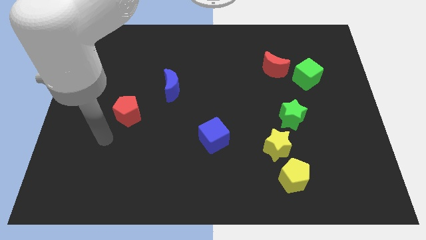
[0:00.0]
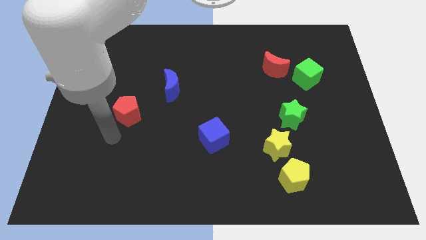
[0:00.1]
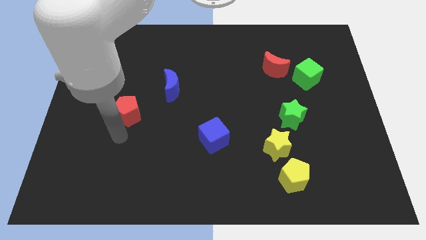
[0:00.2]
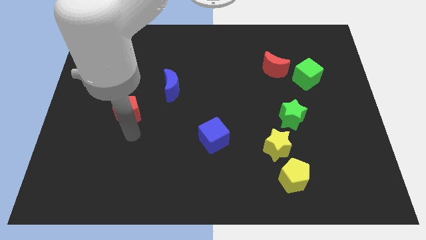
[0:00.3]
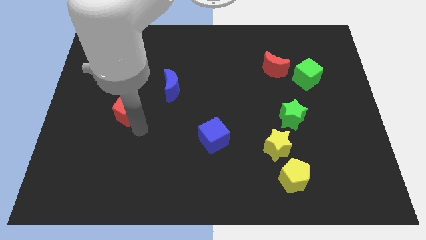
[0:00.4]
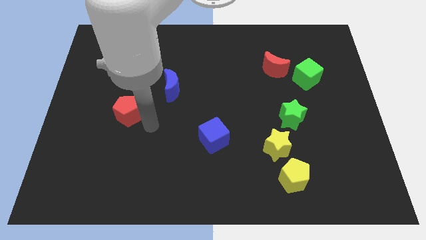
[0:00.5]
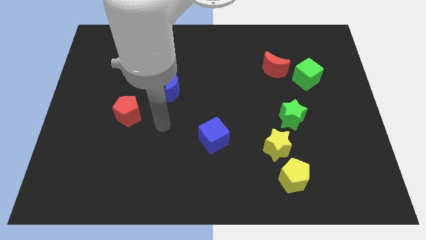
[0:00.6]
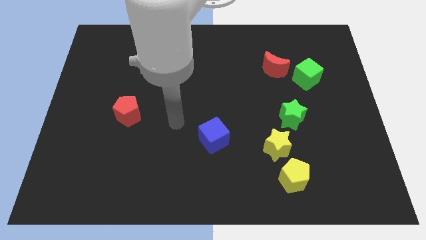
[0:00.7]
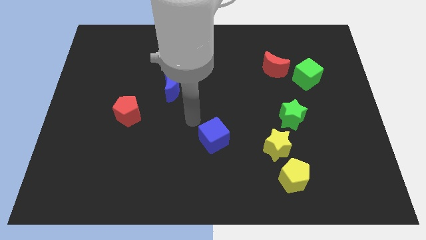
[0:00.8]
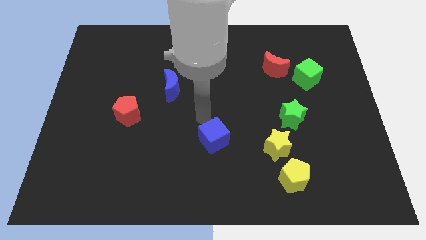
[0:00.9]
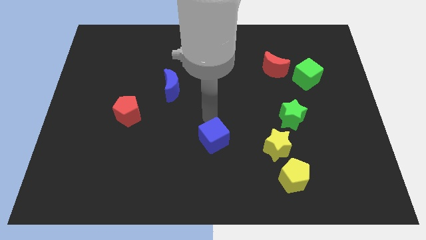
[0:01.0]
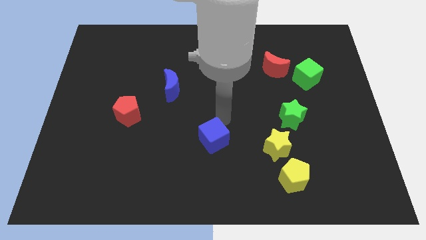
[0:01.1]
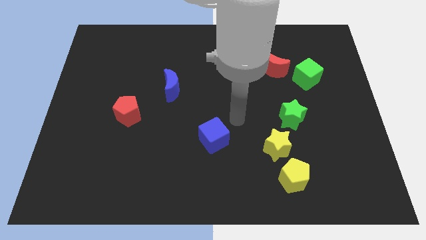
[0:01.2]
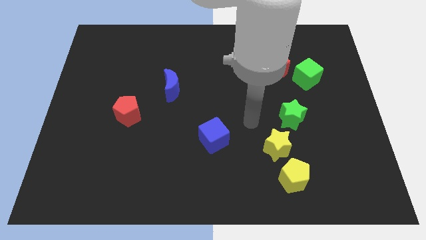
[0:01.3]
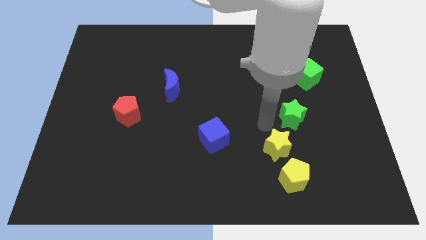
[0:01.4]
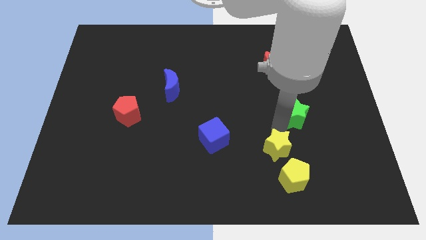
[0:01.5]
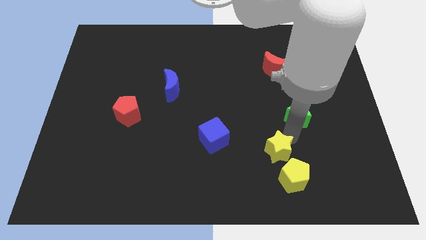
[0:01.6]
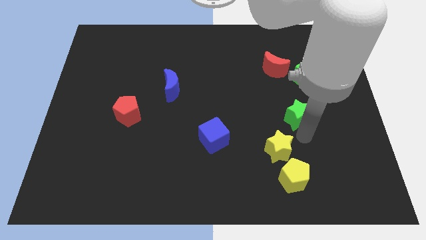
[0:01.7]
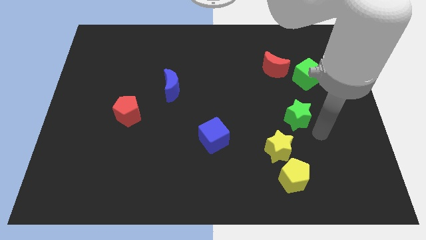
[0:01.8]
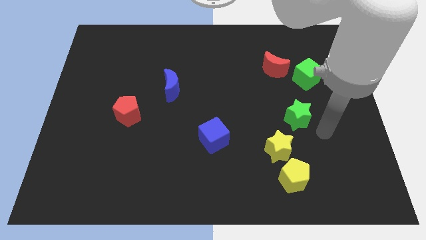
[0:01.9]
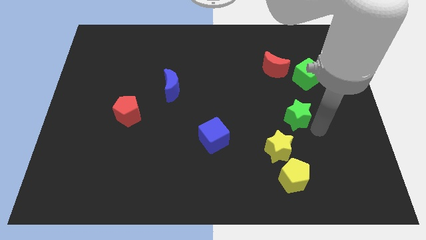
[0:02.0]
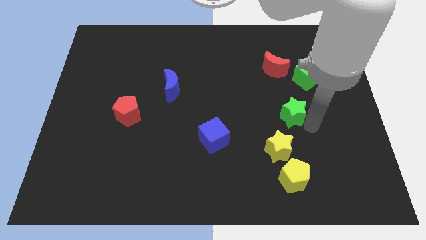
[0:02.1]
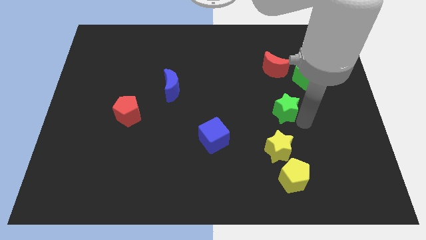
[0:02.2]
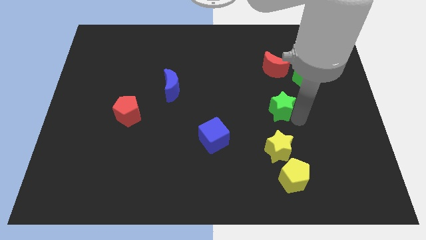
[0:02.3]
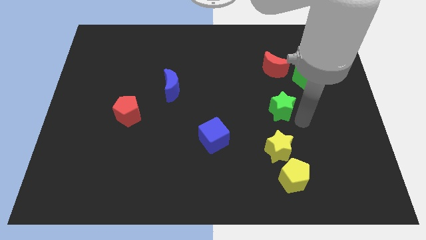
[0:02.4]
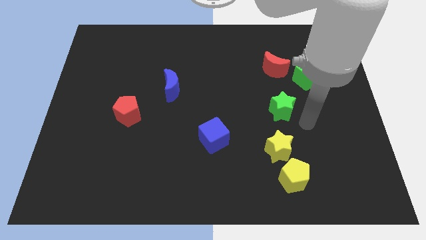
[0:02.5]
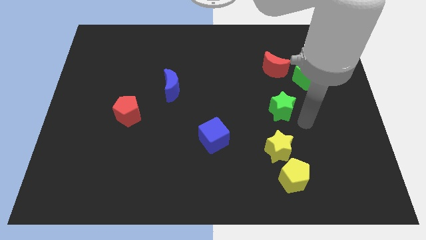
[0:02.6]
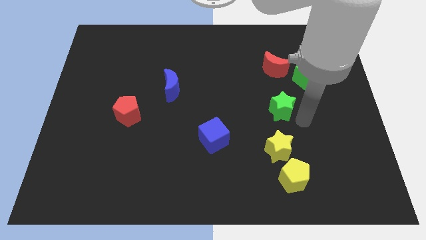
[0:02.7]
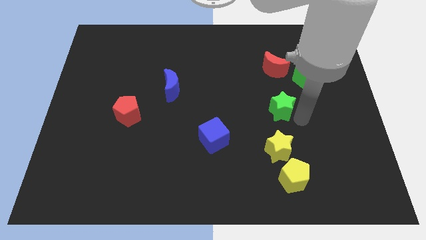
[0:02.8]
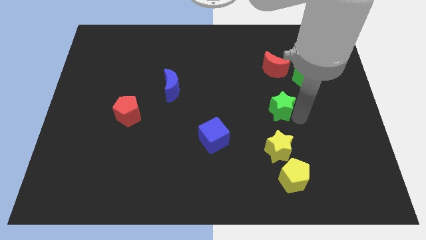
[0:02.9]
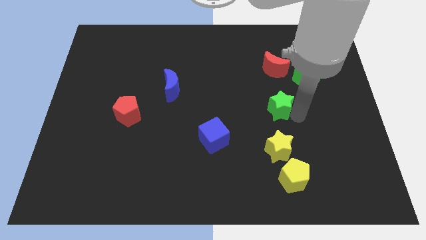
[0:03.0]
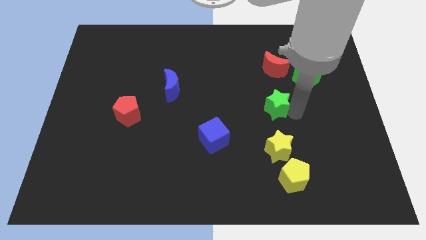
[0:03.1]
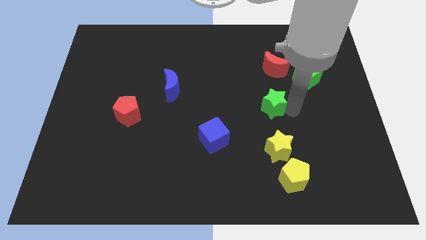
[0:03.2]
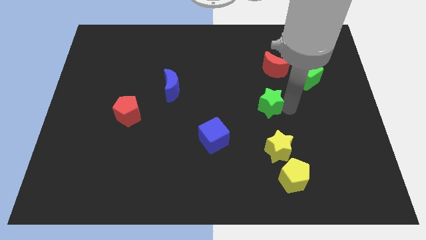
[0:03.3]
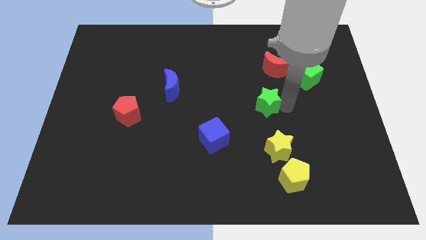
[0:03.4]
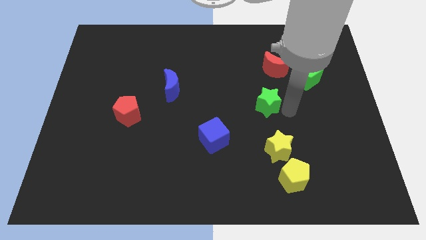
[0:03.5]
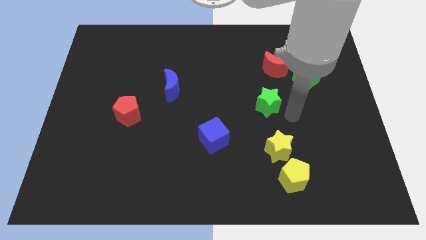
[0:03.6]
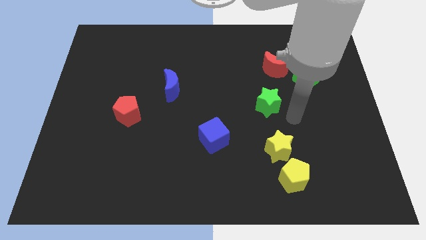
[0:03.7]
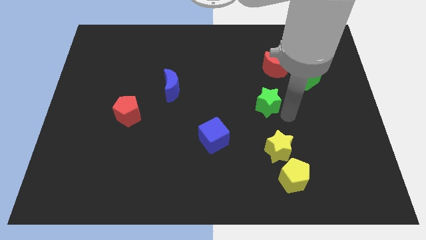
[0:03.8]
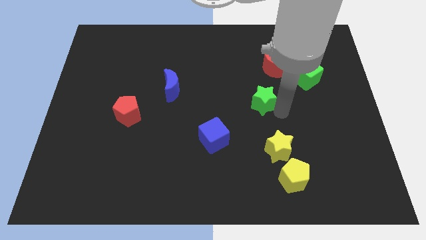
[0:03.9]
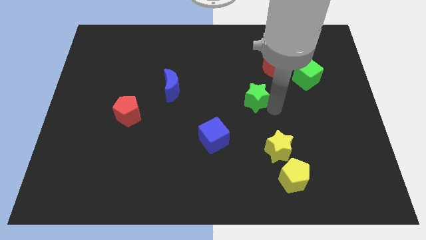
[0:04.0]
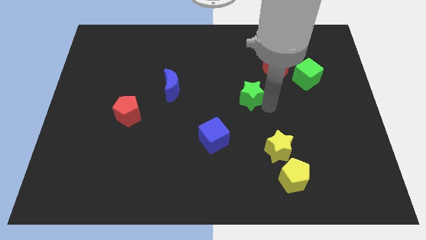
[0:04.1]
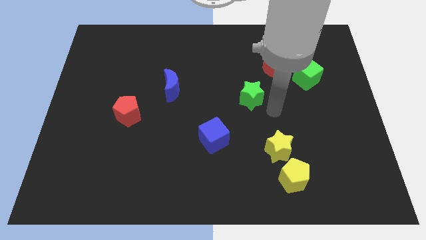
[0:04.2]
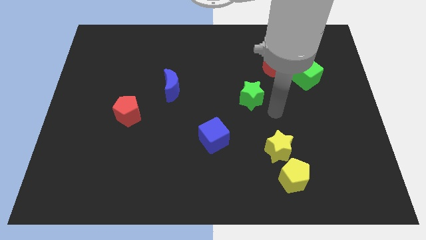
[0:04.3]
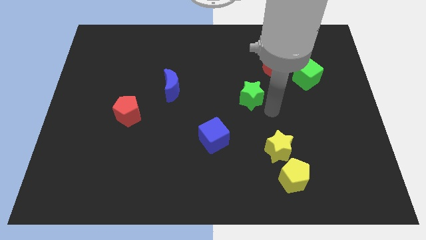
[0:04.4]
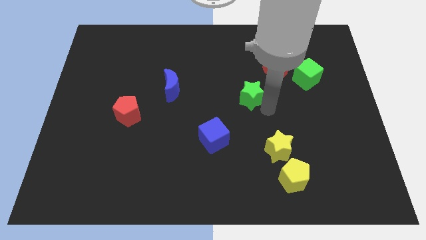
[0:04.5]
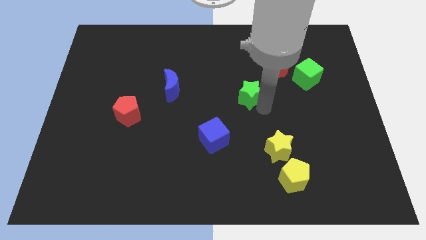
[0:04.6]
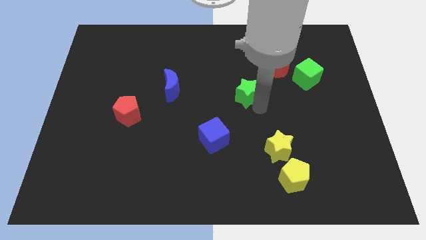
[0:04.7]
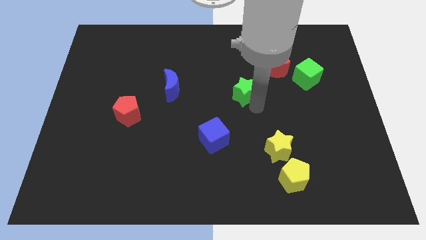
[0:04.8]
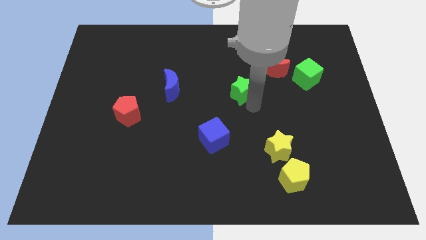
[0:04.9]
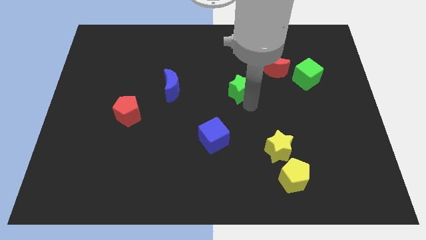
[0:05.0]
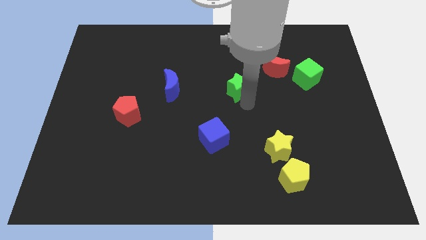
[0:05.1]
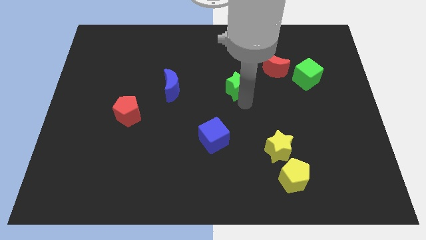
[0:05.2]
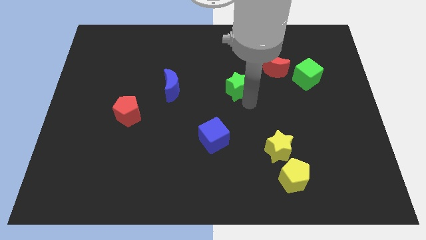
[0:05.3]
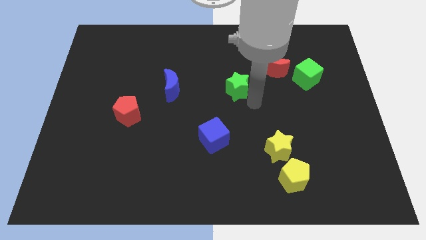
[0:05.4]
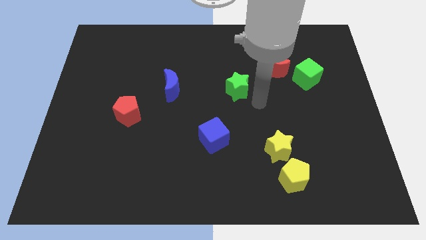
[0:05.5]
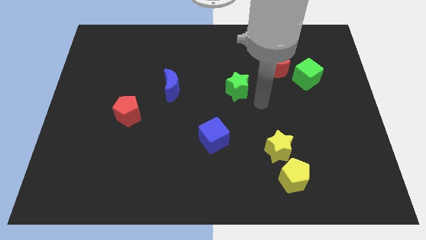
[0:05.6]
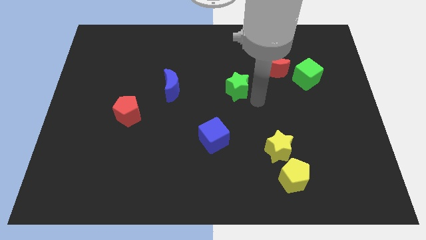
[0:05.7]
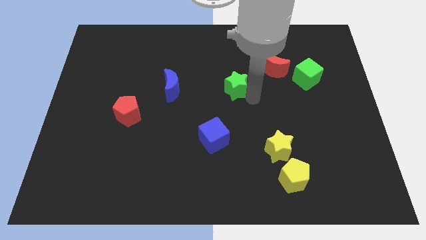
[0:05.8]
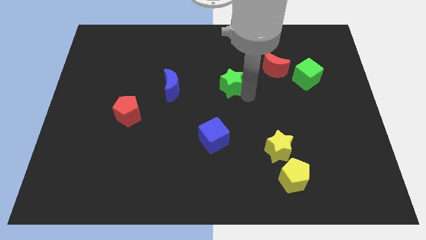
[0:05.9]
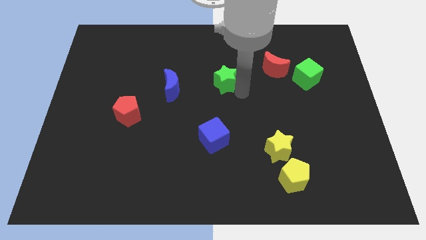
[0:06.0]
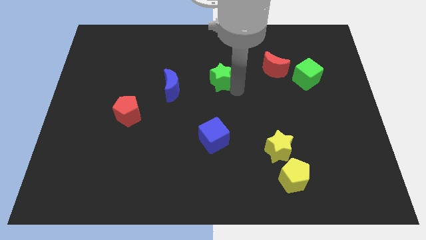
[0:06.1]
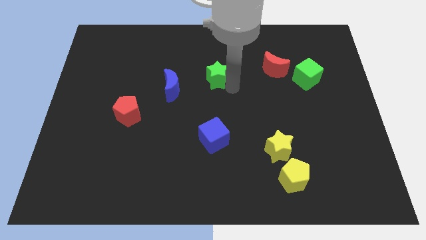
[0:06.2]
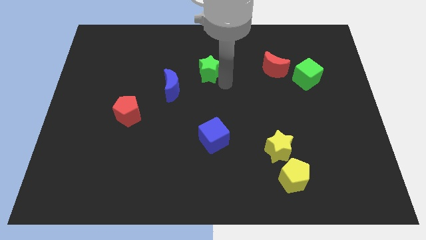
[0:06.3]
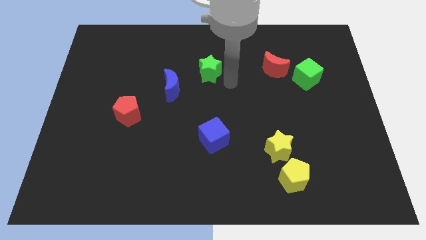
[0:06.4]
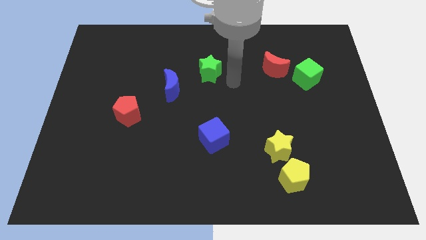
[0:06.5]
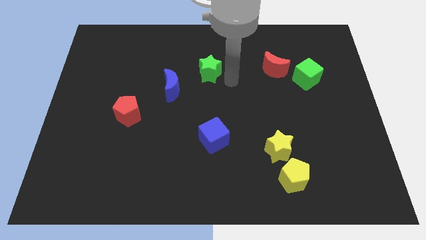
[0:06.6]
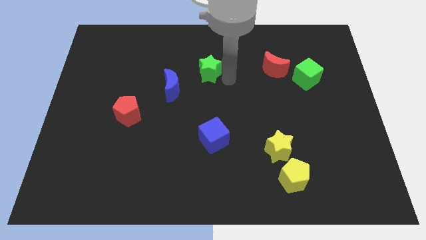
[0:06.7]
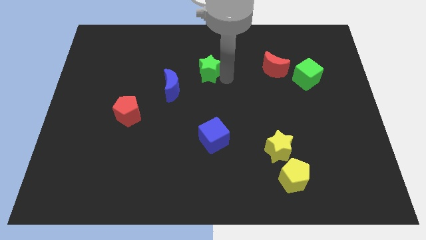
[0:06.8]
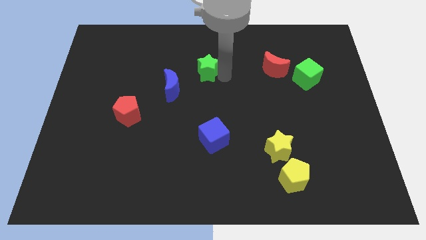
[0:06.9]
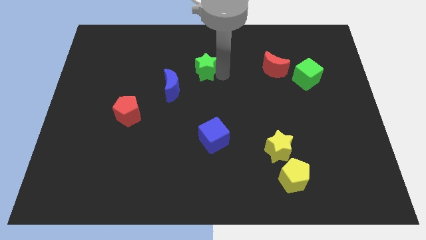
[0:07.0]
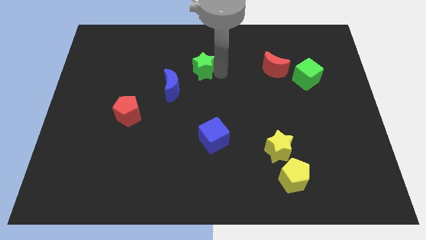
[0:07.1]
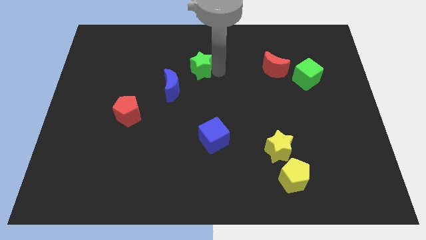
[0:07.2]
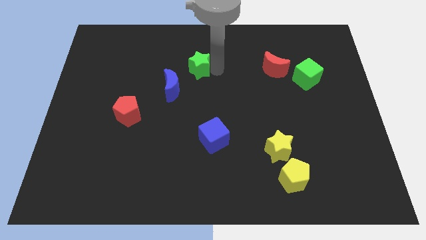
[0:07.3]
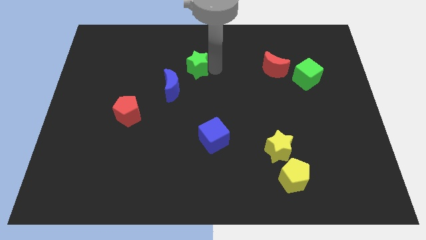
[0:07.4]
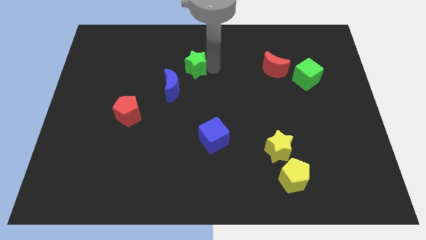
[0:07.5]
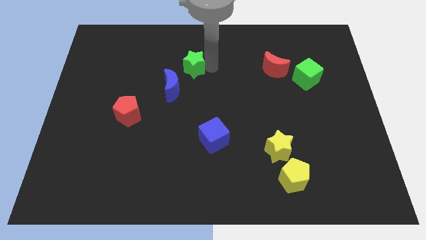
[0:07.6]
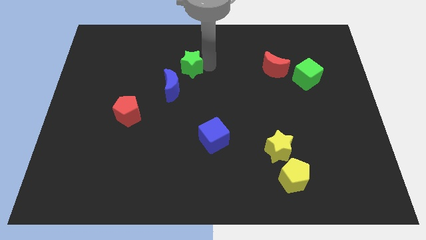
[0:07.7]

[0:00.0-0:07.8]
slide the green star to the top of the blue moon
